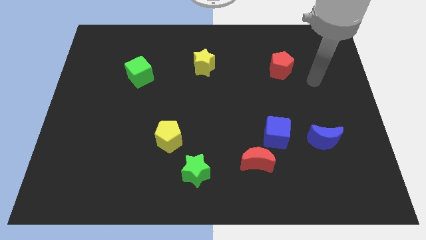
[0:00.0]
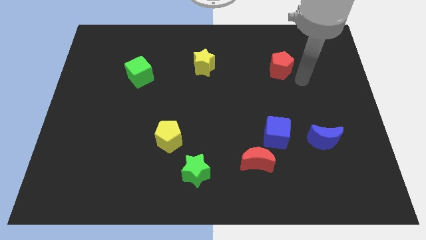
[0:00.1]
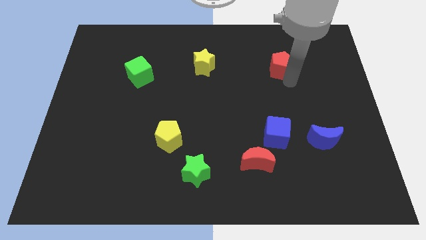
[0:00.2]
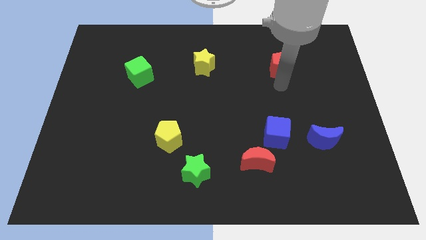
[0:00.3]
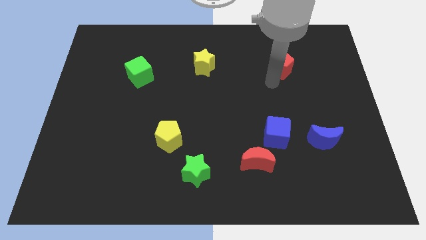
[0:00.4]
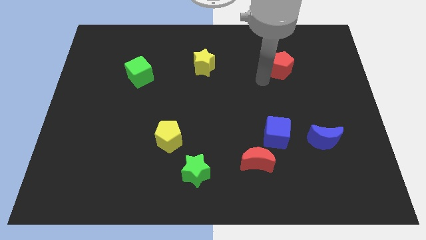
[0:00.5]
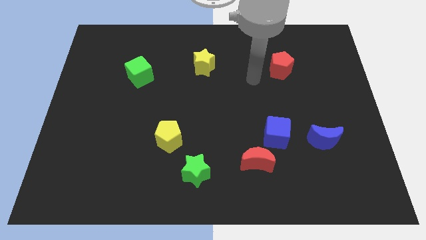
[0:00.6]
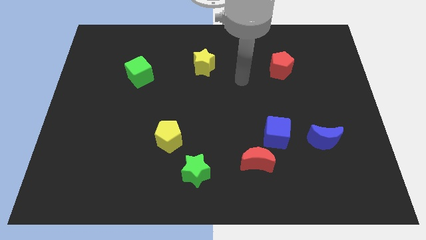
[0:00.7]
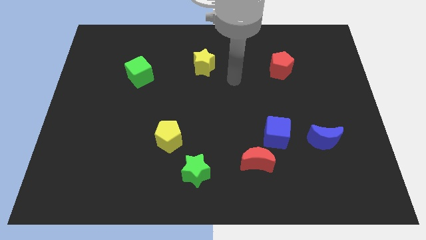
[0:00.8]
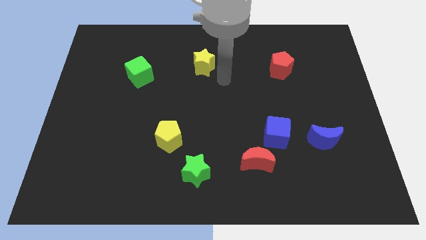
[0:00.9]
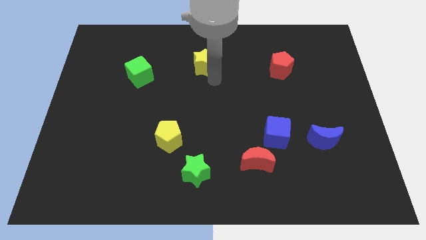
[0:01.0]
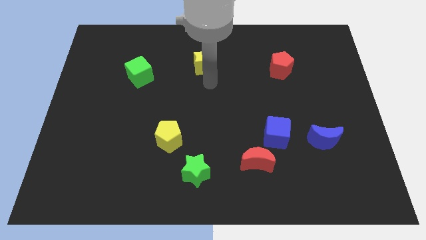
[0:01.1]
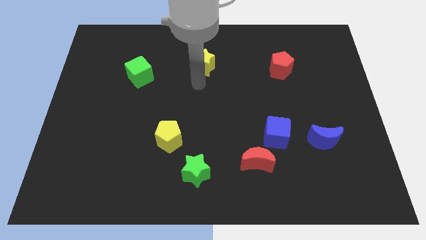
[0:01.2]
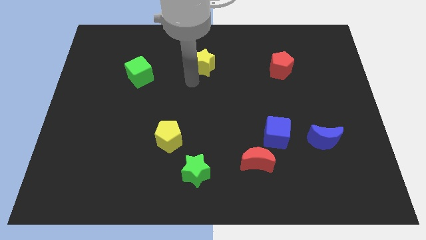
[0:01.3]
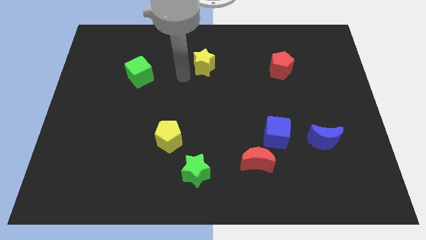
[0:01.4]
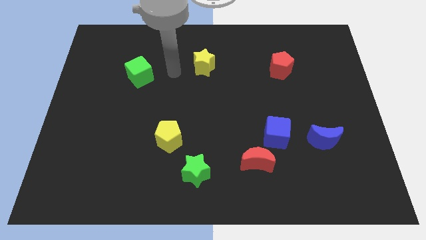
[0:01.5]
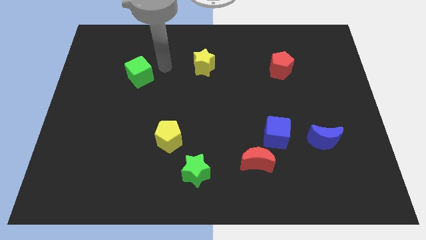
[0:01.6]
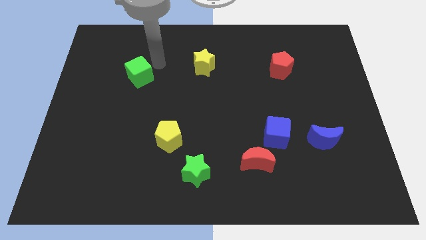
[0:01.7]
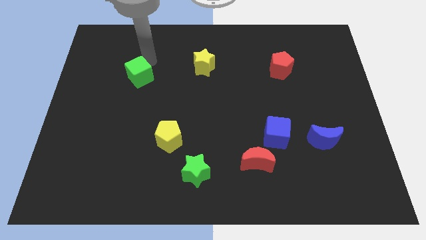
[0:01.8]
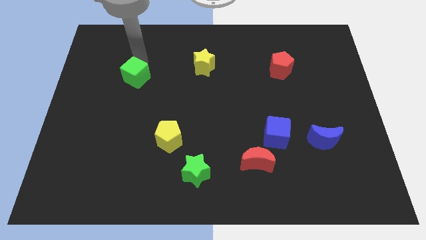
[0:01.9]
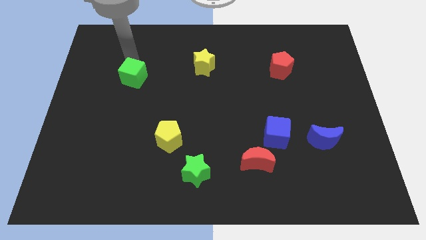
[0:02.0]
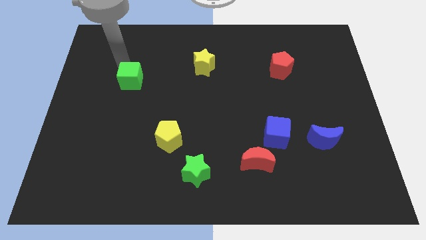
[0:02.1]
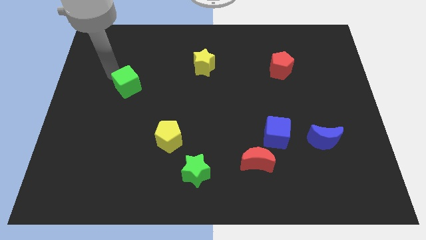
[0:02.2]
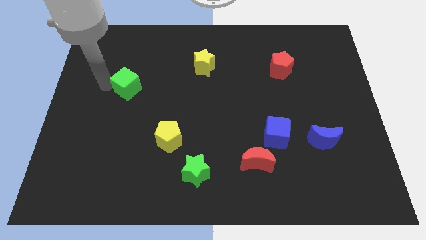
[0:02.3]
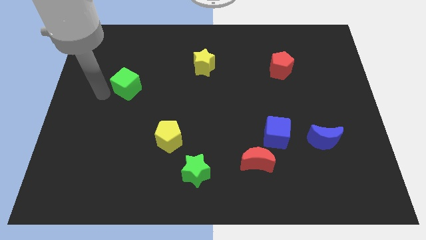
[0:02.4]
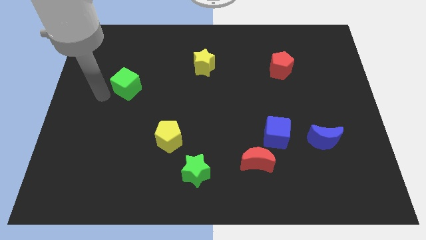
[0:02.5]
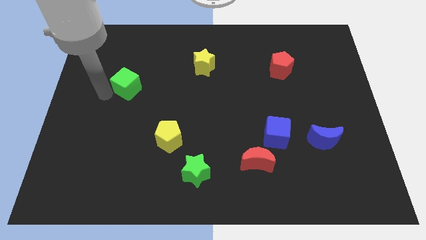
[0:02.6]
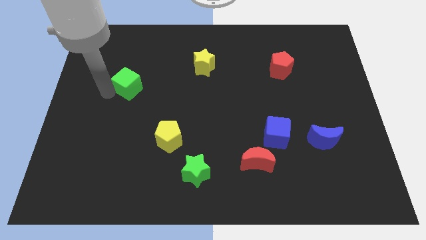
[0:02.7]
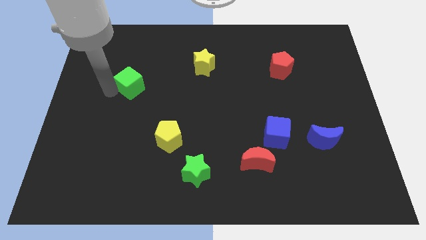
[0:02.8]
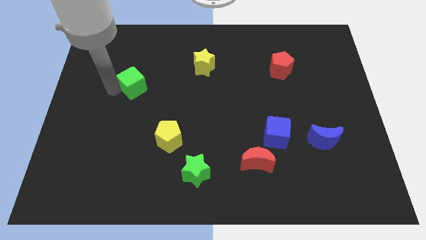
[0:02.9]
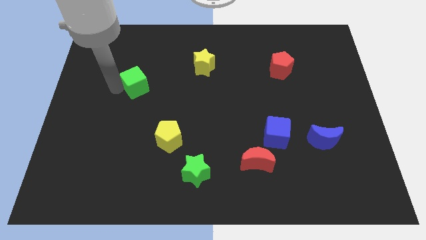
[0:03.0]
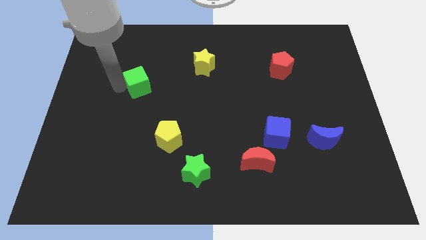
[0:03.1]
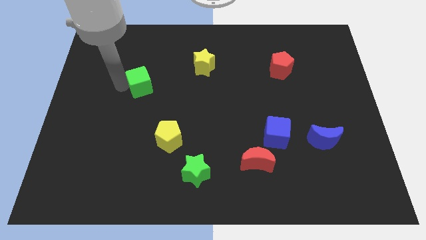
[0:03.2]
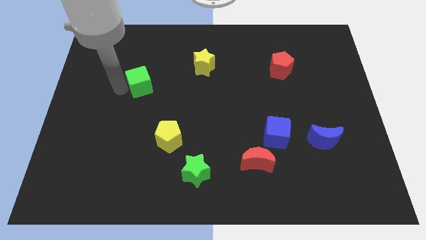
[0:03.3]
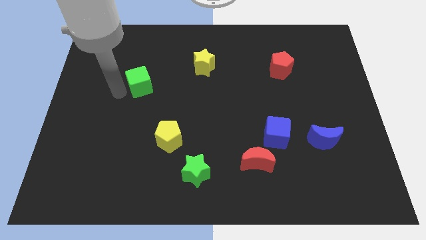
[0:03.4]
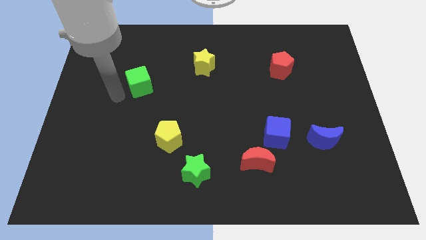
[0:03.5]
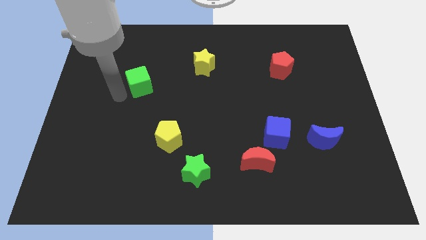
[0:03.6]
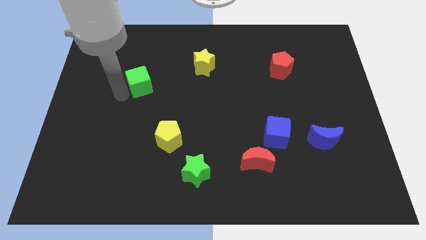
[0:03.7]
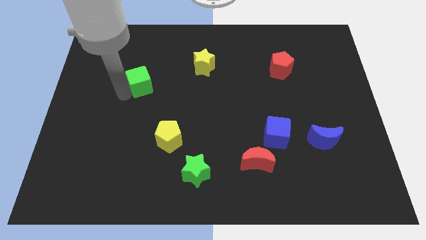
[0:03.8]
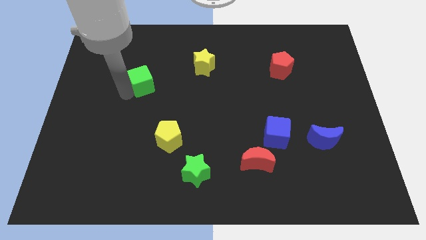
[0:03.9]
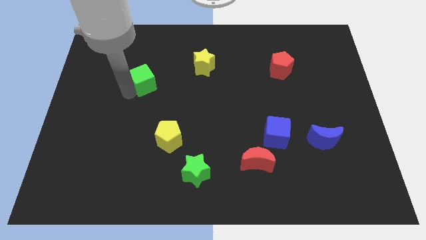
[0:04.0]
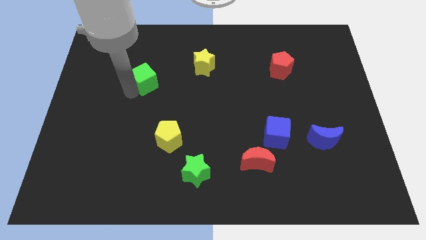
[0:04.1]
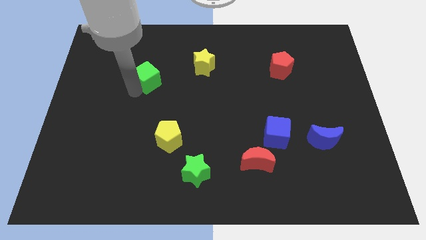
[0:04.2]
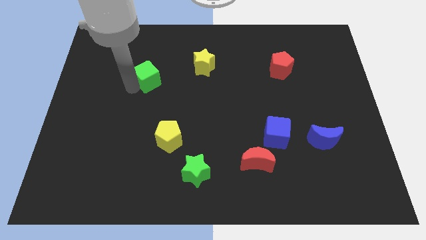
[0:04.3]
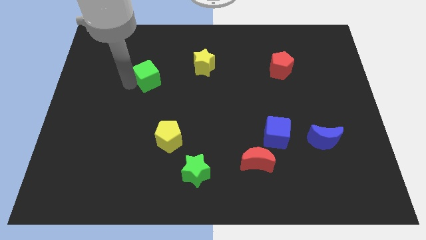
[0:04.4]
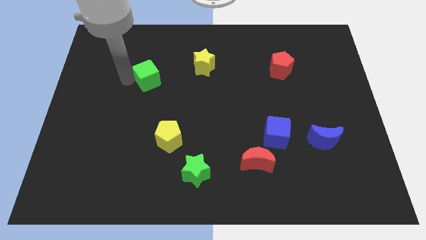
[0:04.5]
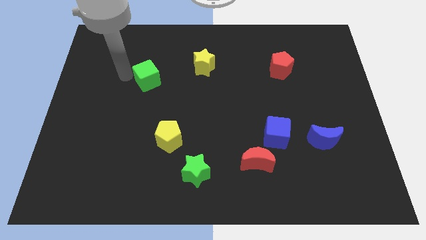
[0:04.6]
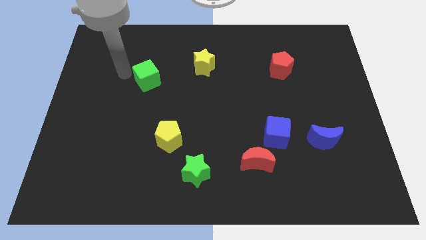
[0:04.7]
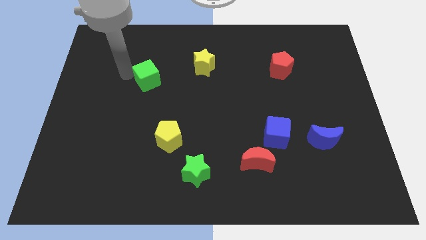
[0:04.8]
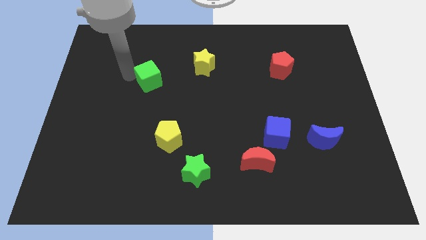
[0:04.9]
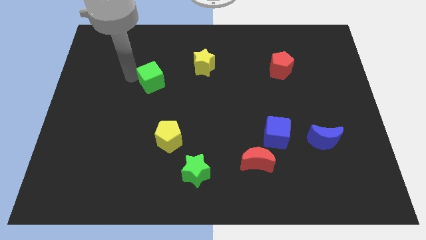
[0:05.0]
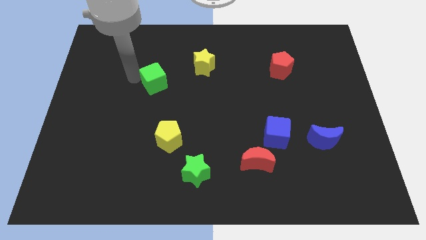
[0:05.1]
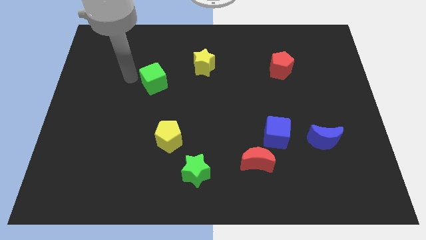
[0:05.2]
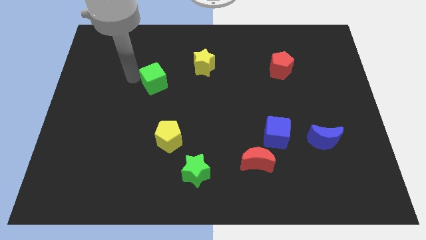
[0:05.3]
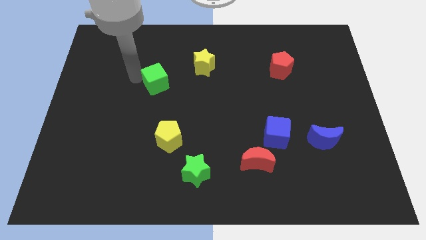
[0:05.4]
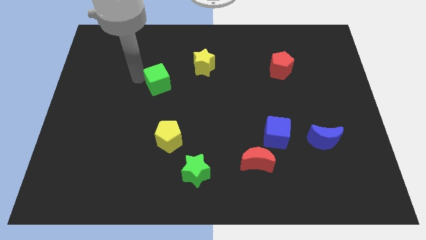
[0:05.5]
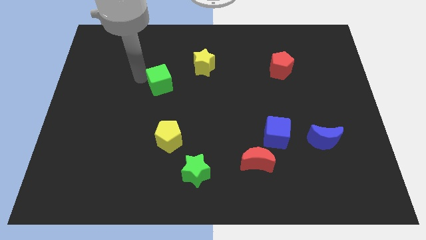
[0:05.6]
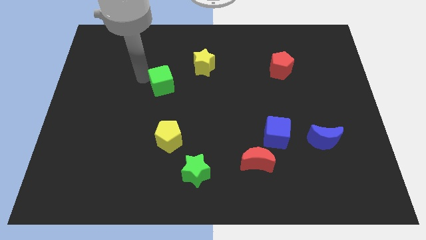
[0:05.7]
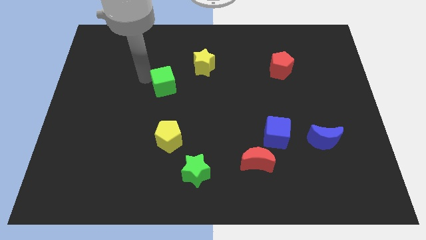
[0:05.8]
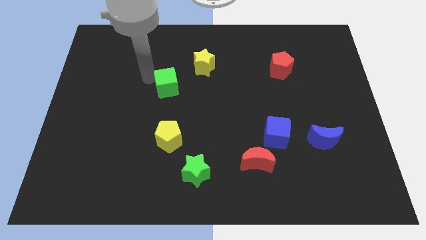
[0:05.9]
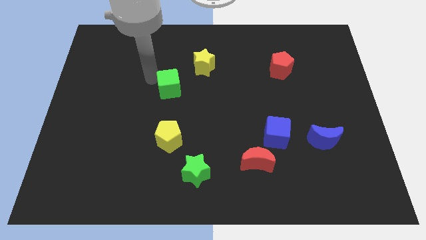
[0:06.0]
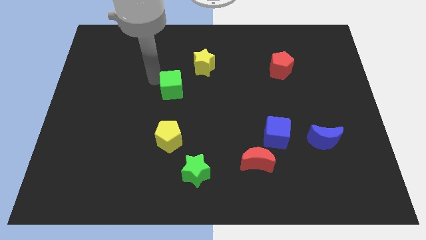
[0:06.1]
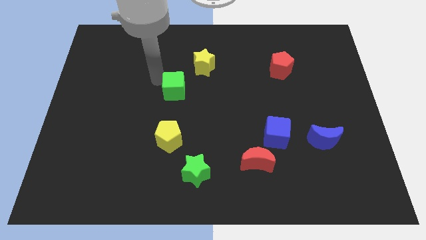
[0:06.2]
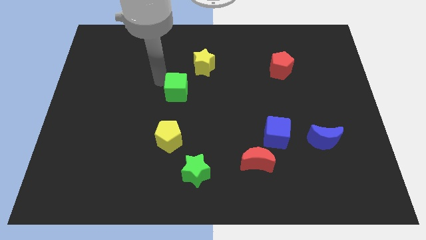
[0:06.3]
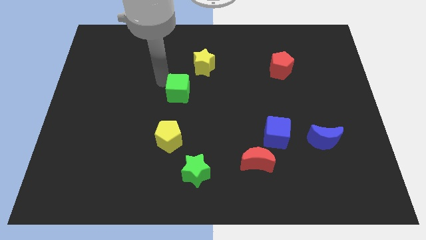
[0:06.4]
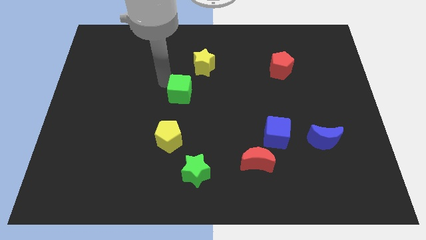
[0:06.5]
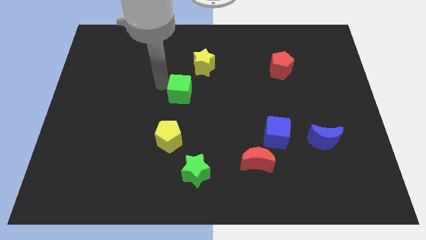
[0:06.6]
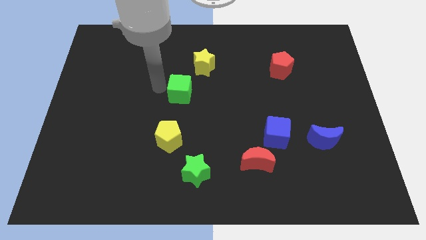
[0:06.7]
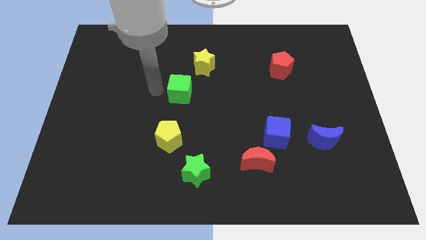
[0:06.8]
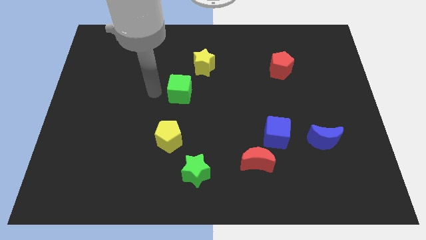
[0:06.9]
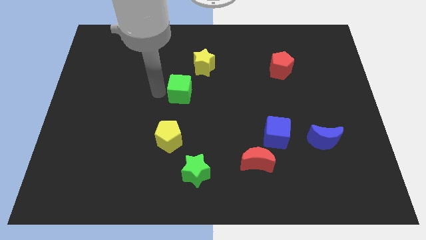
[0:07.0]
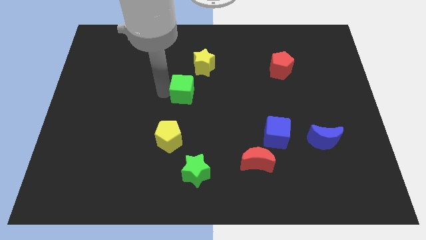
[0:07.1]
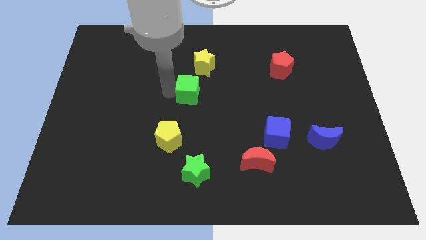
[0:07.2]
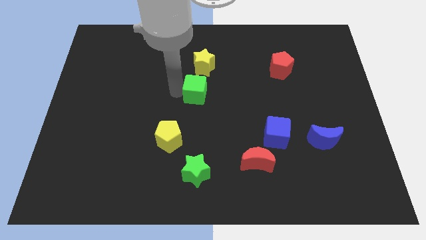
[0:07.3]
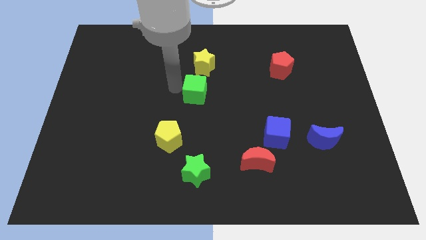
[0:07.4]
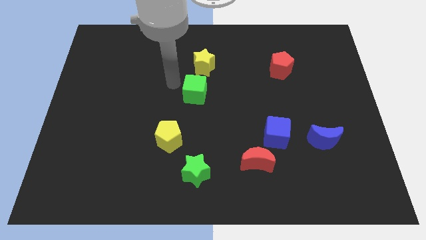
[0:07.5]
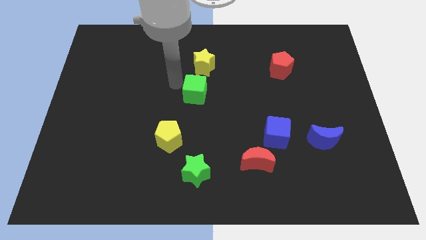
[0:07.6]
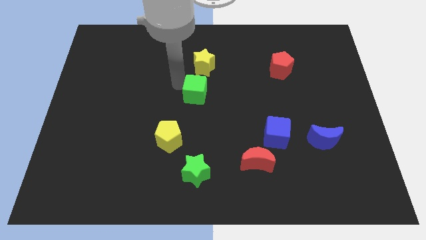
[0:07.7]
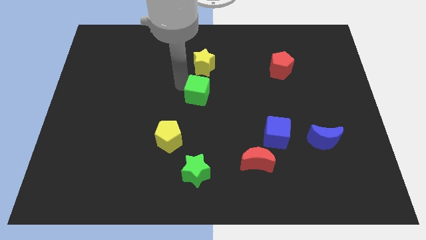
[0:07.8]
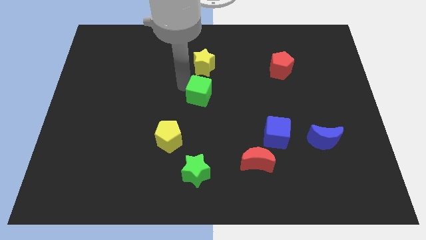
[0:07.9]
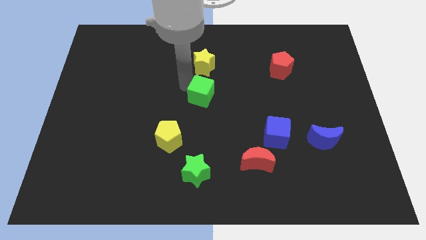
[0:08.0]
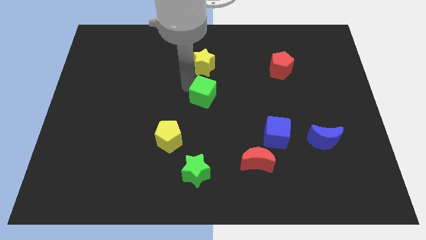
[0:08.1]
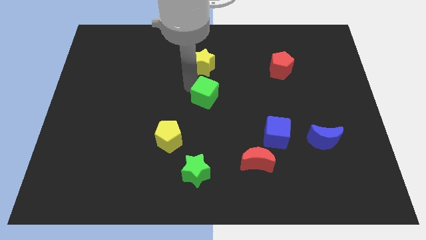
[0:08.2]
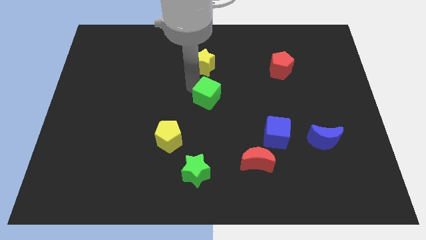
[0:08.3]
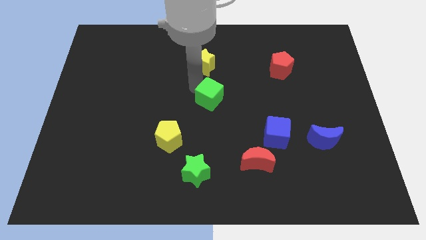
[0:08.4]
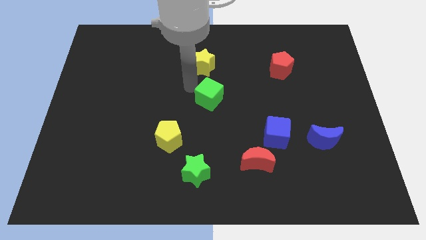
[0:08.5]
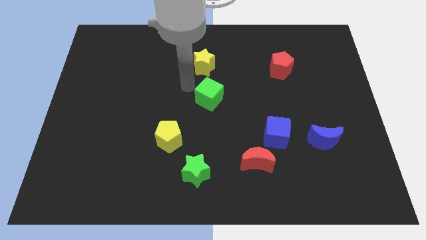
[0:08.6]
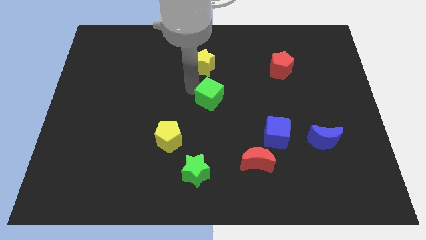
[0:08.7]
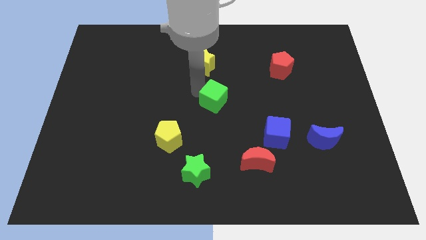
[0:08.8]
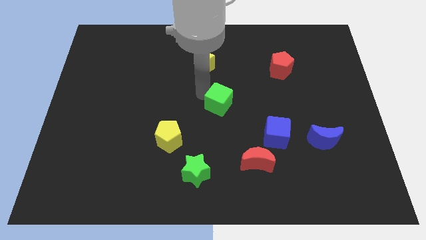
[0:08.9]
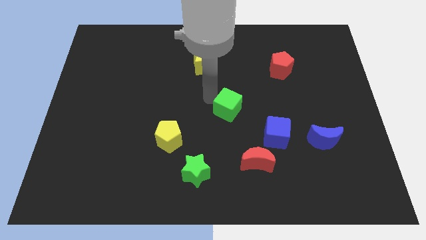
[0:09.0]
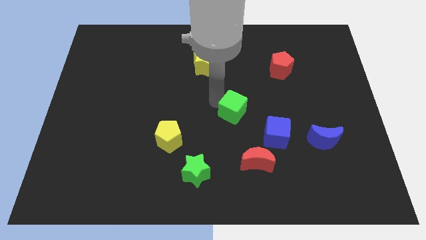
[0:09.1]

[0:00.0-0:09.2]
put the green cube to the top left side of the blue cube
